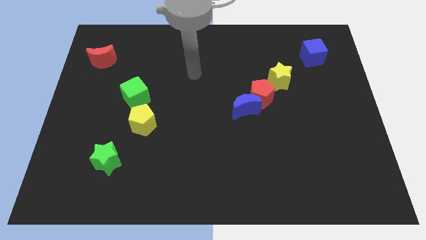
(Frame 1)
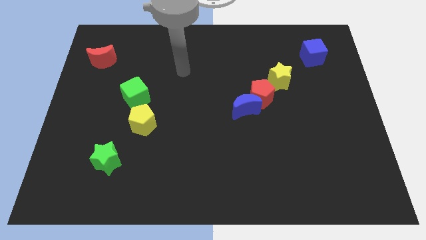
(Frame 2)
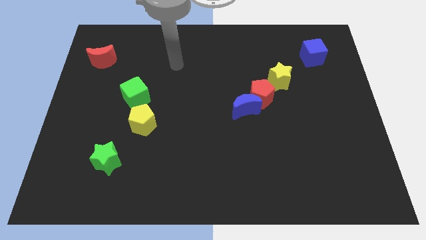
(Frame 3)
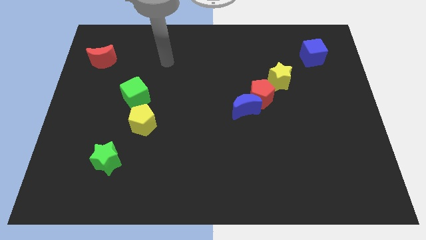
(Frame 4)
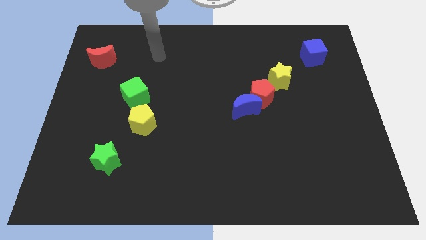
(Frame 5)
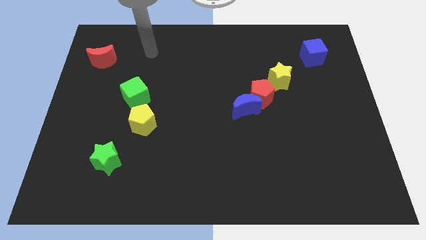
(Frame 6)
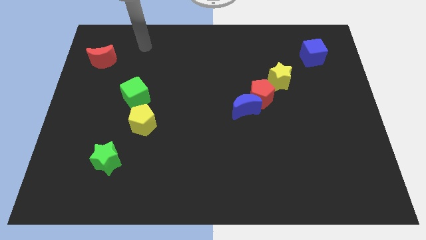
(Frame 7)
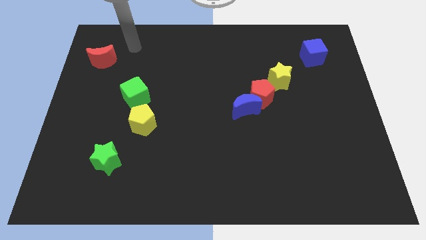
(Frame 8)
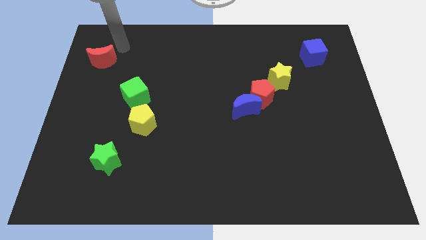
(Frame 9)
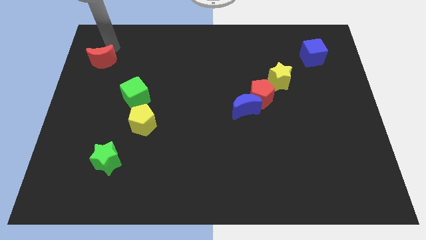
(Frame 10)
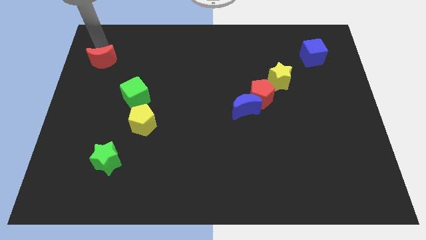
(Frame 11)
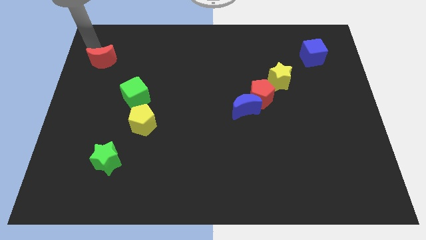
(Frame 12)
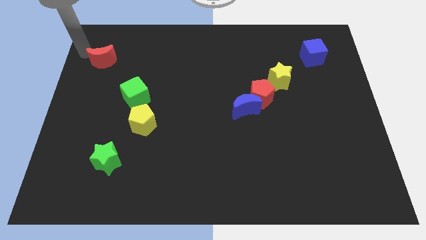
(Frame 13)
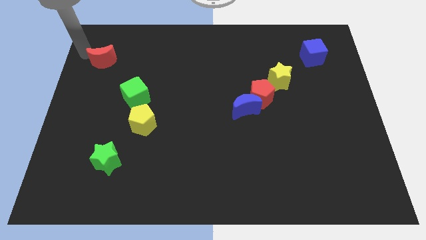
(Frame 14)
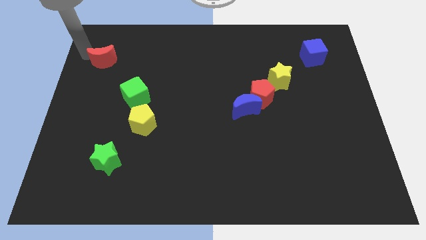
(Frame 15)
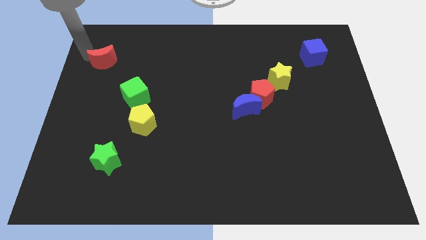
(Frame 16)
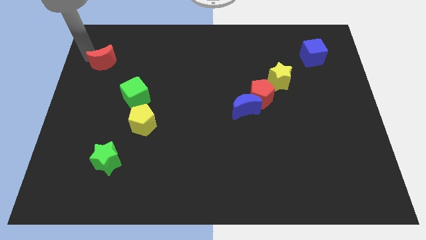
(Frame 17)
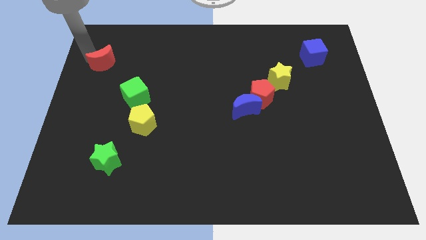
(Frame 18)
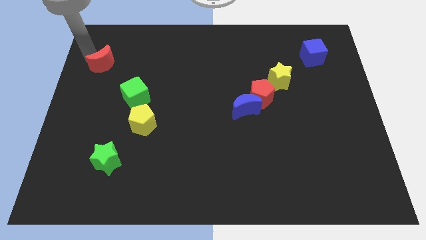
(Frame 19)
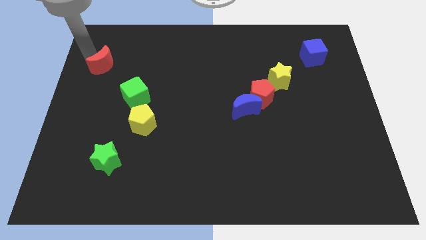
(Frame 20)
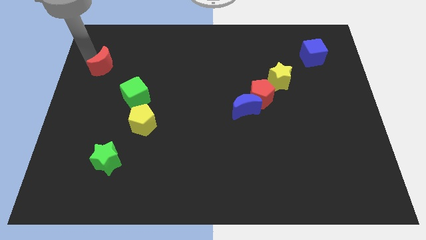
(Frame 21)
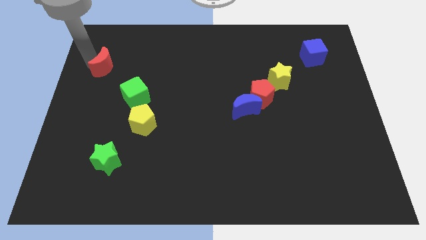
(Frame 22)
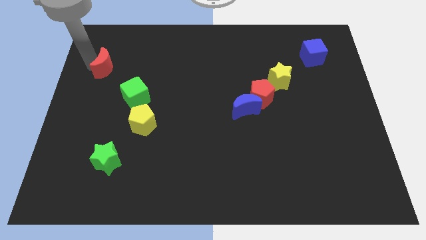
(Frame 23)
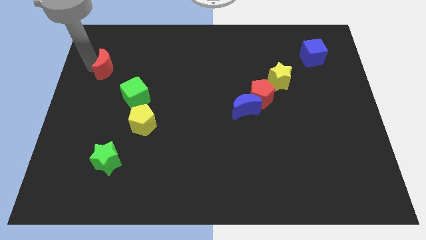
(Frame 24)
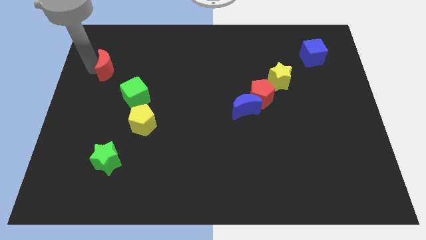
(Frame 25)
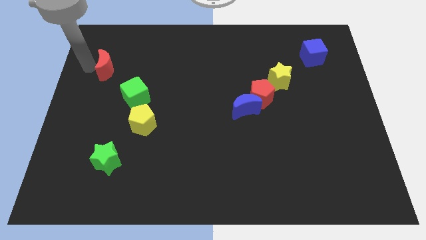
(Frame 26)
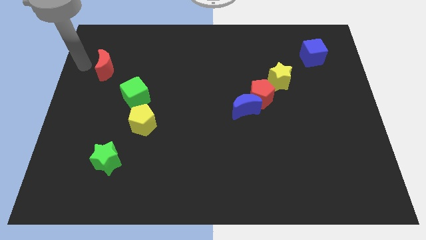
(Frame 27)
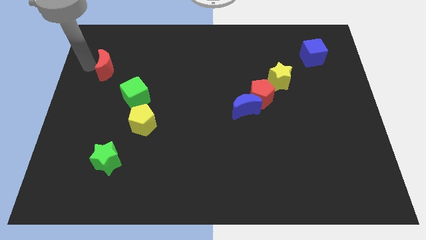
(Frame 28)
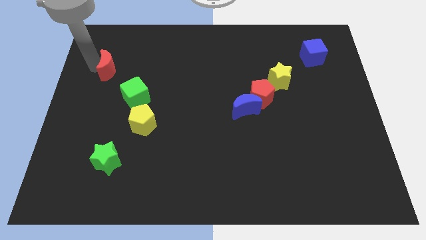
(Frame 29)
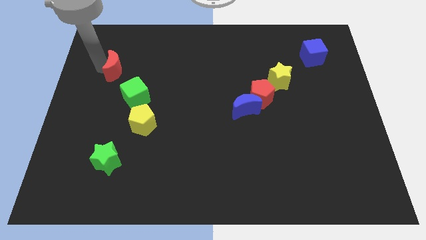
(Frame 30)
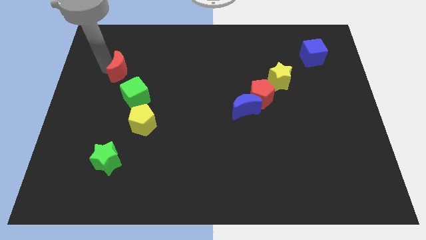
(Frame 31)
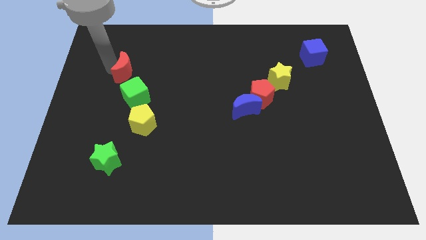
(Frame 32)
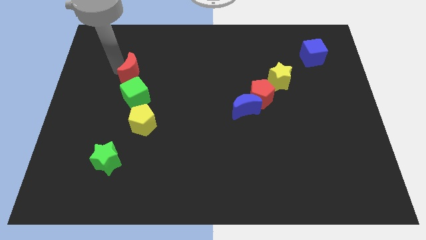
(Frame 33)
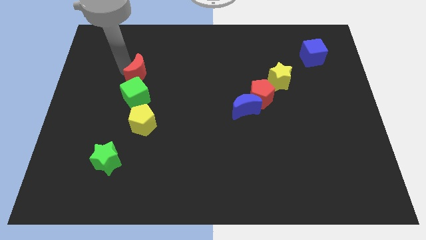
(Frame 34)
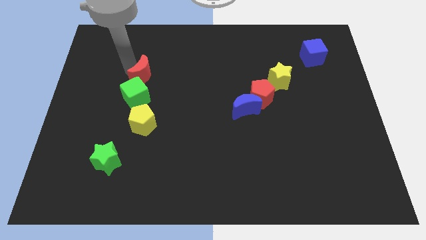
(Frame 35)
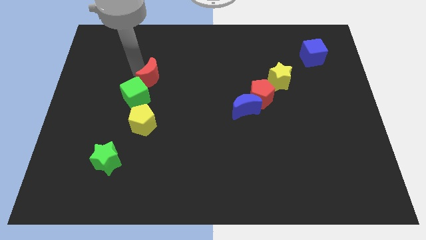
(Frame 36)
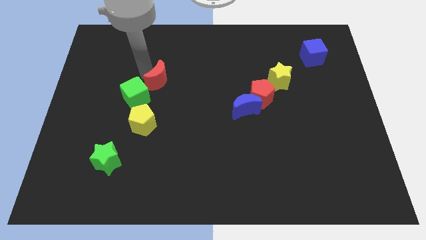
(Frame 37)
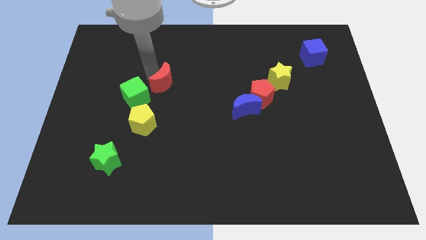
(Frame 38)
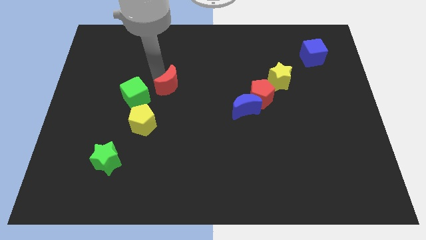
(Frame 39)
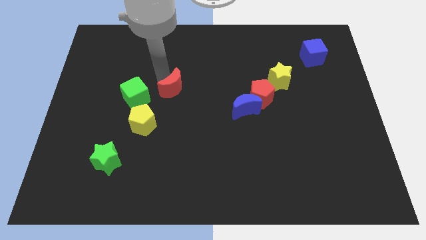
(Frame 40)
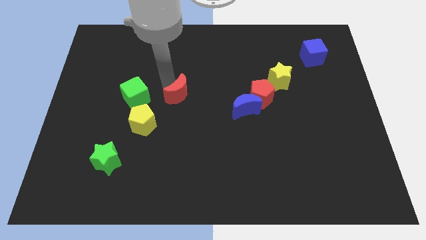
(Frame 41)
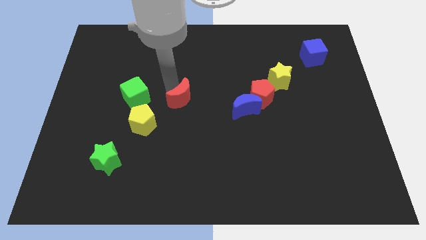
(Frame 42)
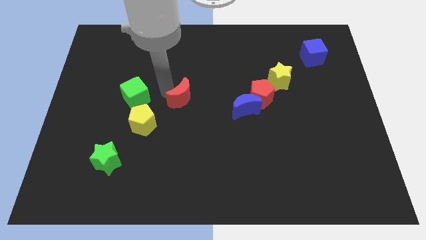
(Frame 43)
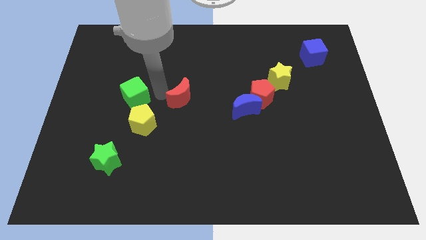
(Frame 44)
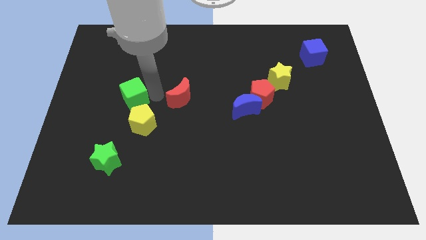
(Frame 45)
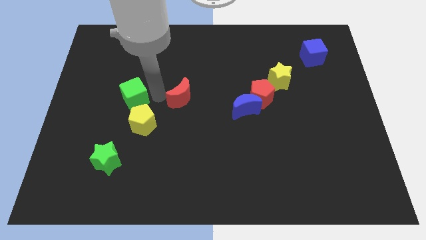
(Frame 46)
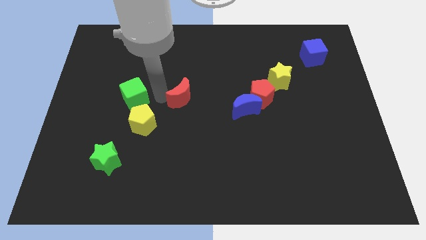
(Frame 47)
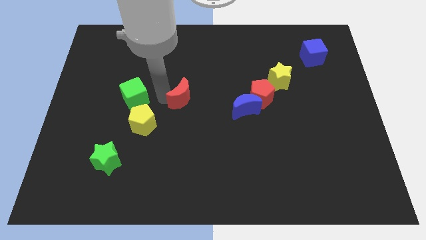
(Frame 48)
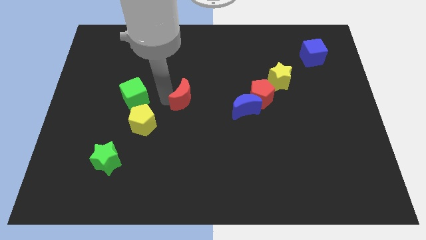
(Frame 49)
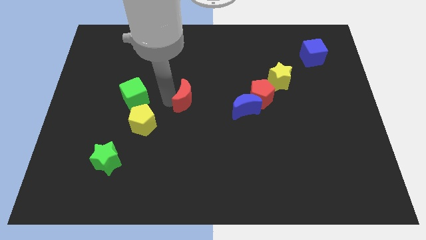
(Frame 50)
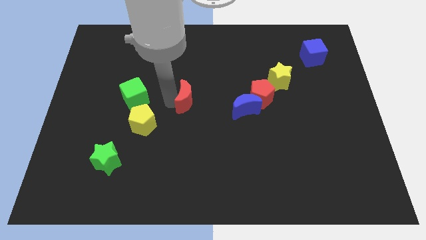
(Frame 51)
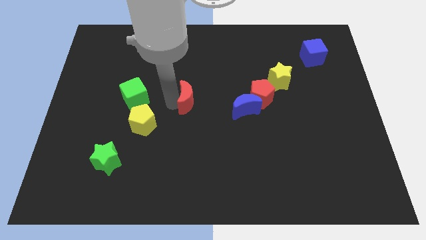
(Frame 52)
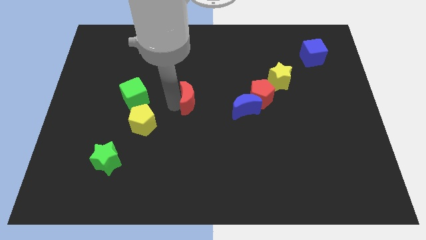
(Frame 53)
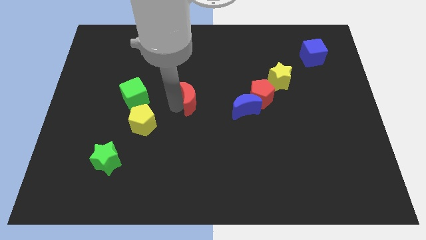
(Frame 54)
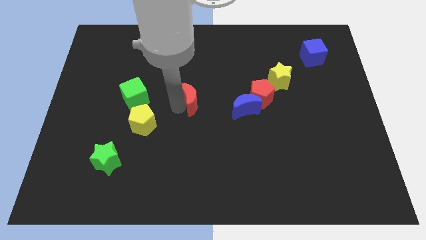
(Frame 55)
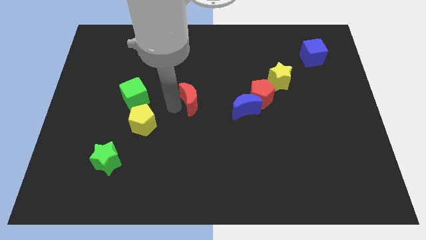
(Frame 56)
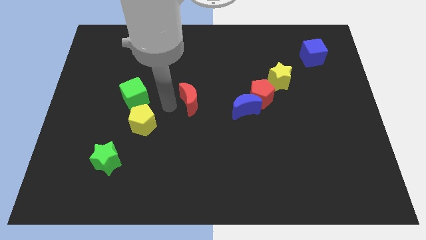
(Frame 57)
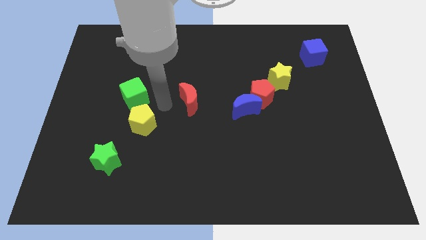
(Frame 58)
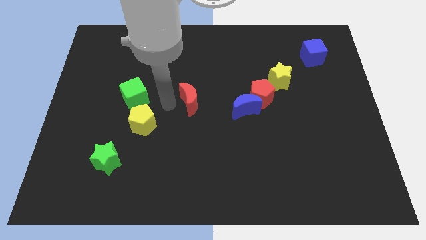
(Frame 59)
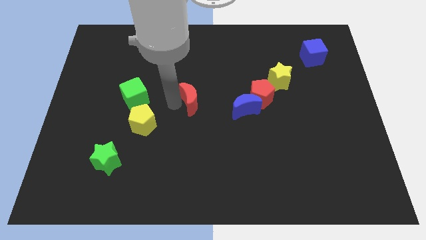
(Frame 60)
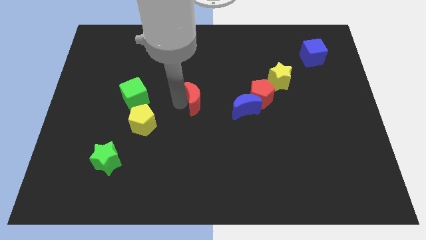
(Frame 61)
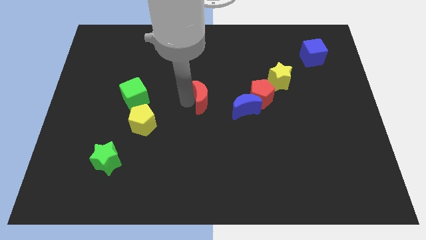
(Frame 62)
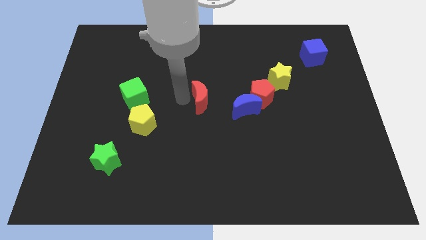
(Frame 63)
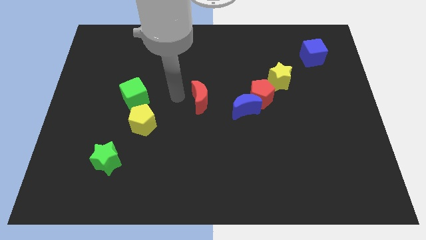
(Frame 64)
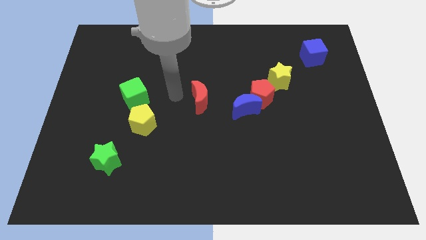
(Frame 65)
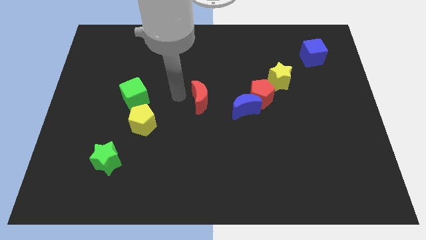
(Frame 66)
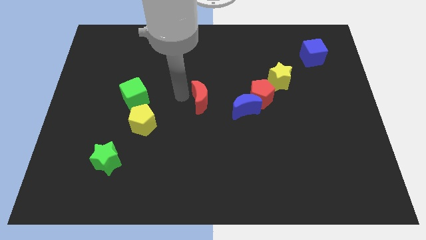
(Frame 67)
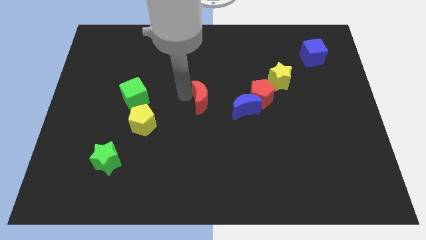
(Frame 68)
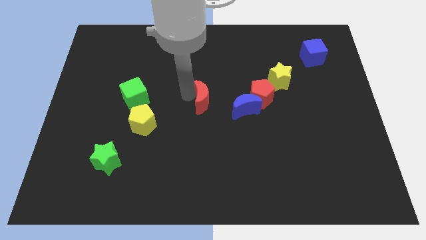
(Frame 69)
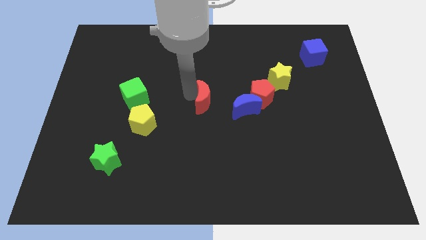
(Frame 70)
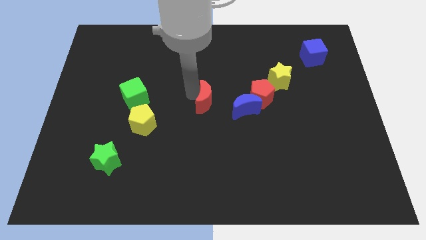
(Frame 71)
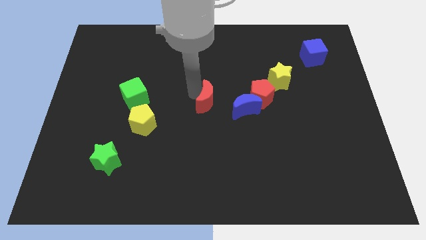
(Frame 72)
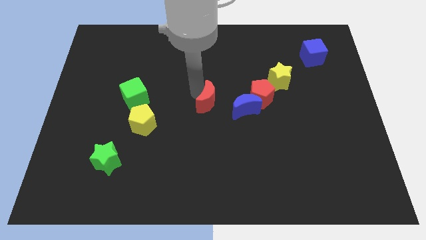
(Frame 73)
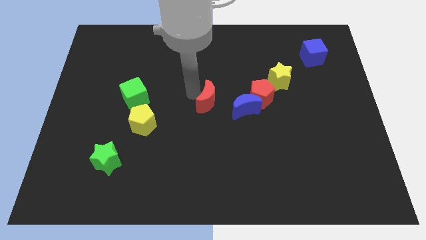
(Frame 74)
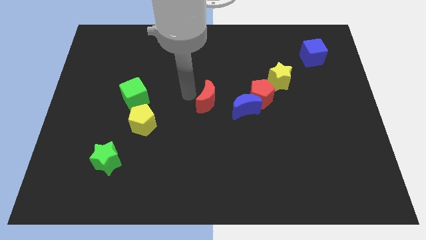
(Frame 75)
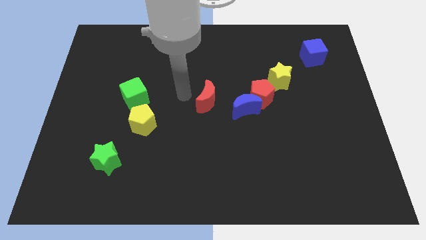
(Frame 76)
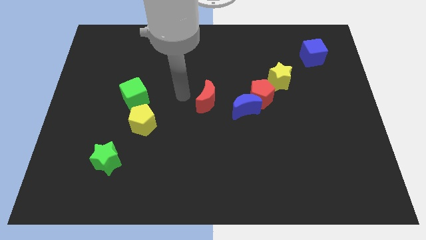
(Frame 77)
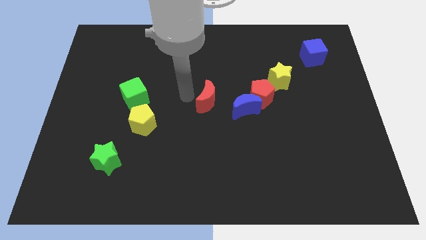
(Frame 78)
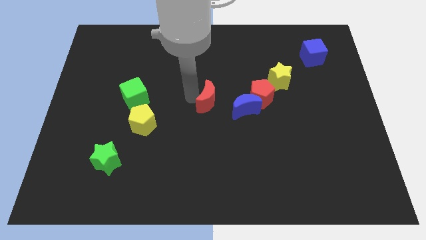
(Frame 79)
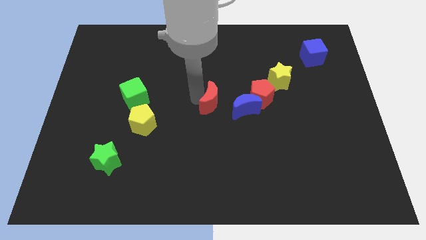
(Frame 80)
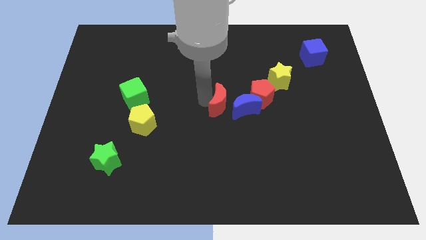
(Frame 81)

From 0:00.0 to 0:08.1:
push the red moon close to the blue moon
